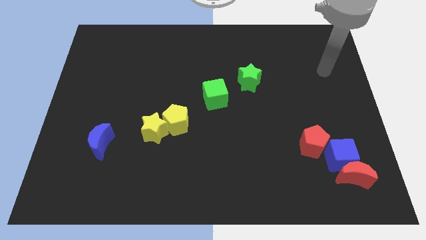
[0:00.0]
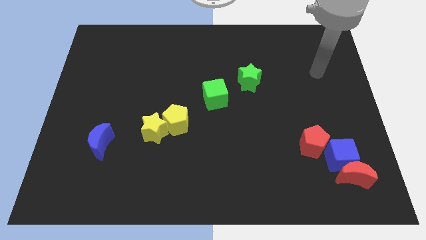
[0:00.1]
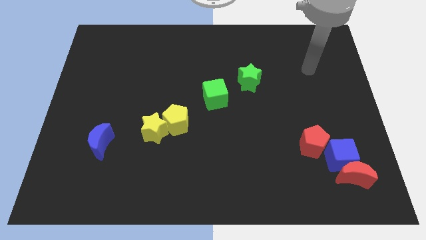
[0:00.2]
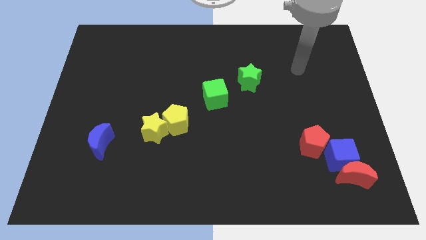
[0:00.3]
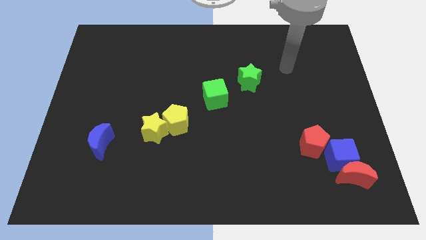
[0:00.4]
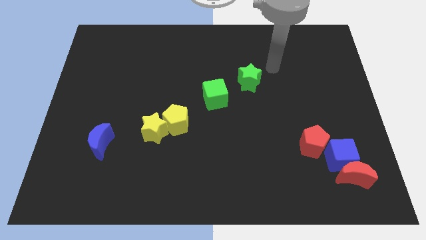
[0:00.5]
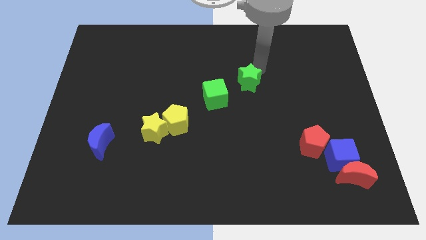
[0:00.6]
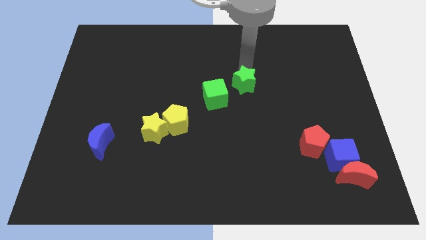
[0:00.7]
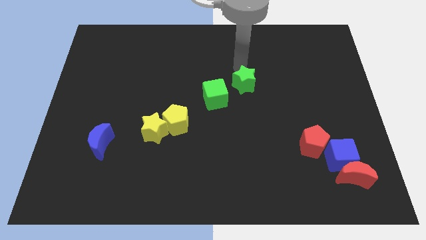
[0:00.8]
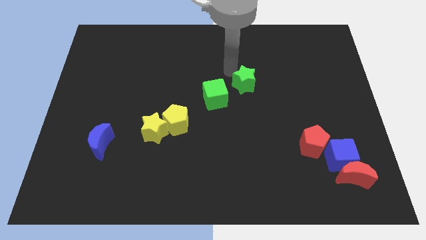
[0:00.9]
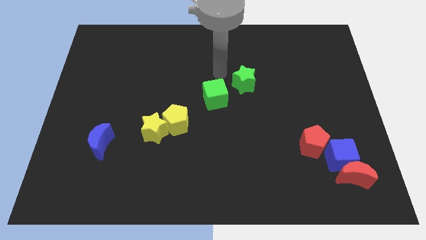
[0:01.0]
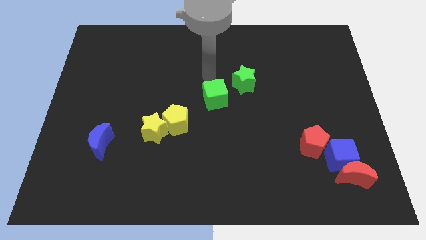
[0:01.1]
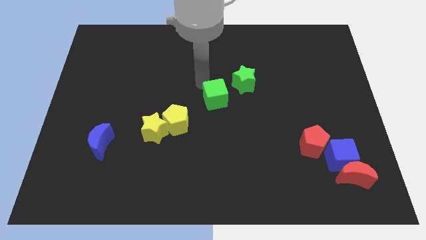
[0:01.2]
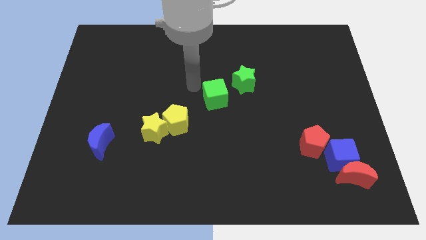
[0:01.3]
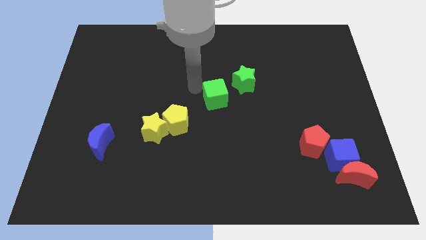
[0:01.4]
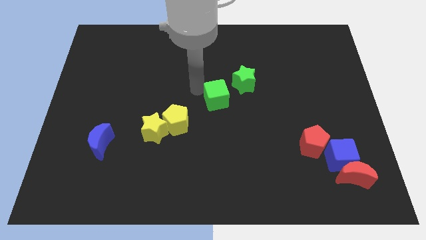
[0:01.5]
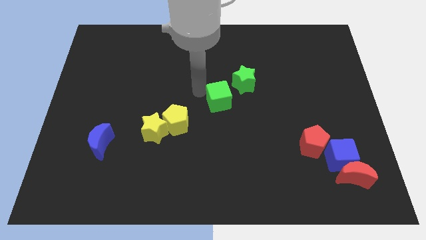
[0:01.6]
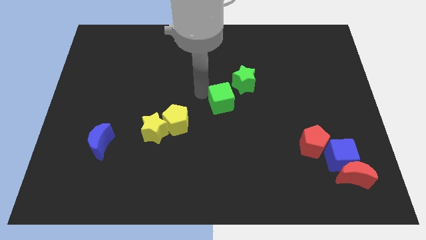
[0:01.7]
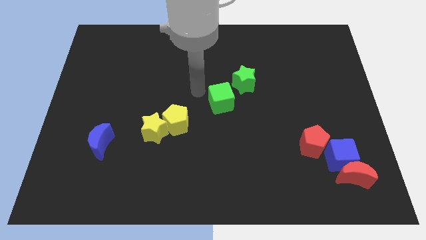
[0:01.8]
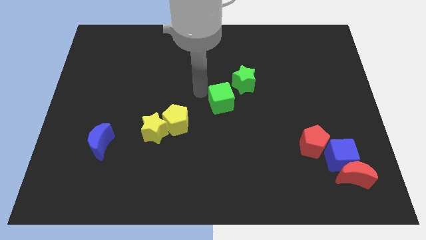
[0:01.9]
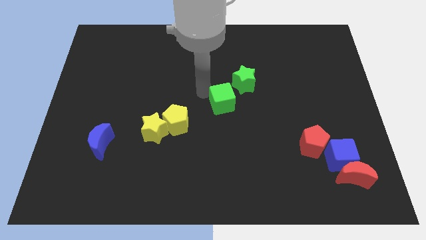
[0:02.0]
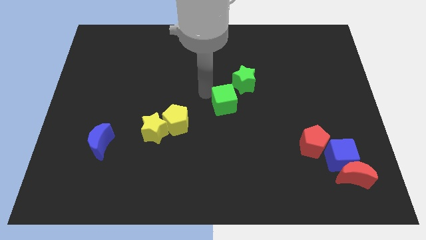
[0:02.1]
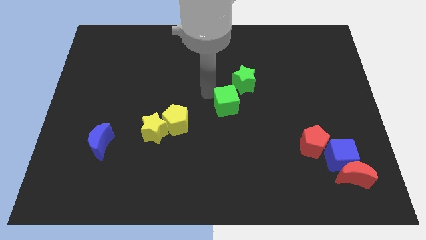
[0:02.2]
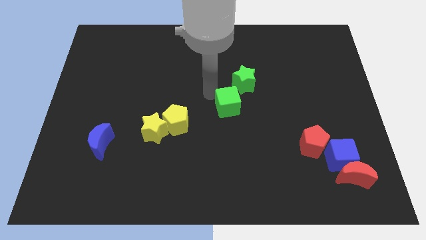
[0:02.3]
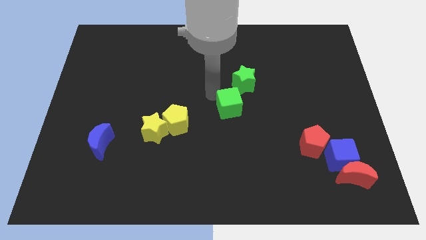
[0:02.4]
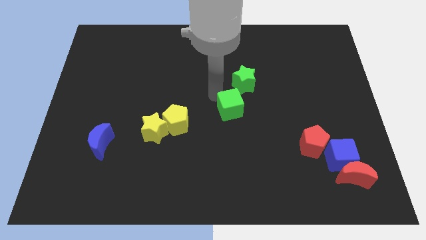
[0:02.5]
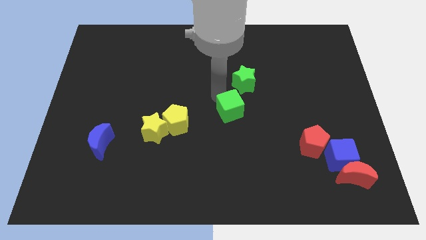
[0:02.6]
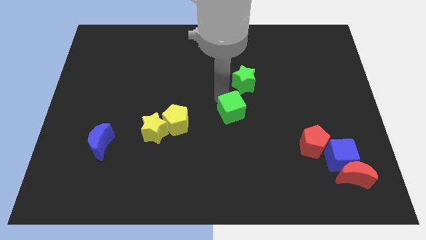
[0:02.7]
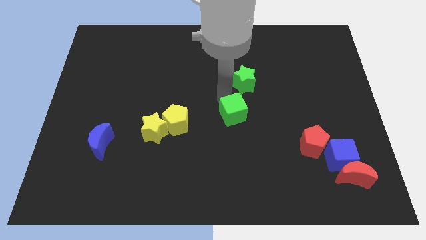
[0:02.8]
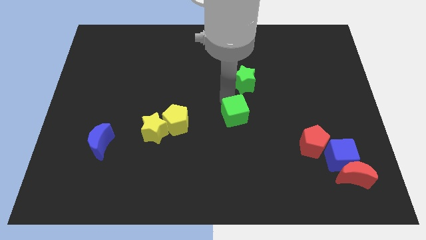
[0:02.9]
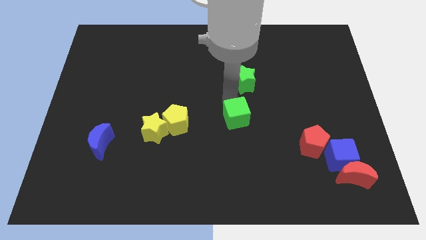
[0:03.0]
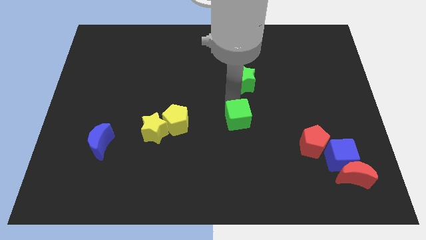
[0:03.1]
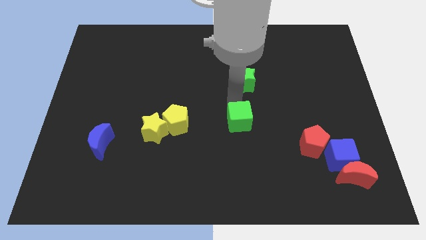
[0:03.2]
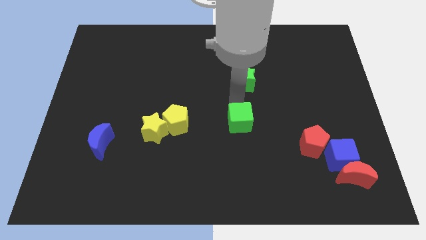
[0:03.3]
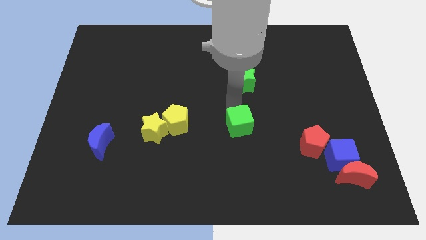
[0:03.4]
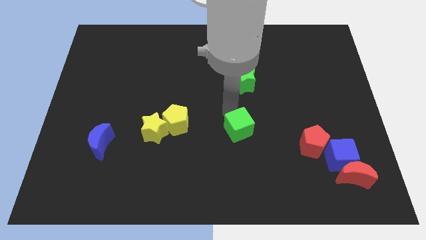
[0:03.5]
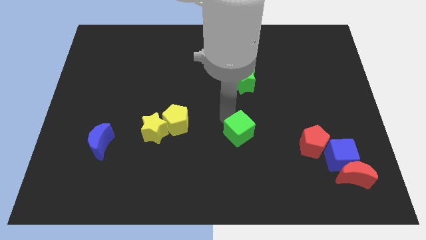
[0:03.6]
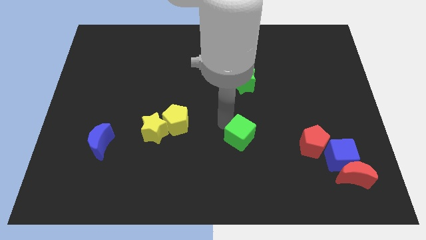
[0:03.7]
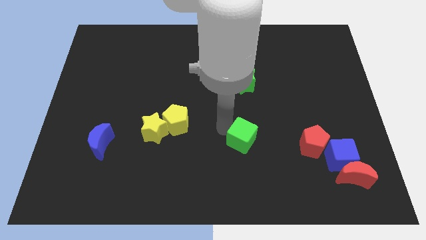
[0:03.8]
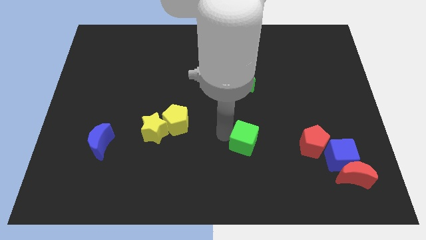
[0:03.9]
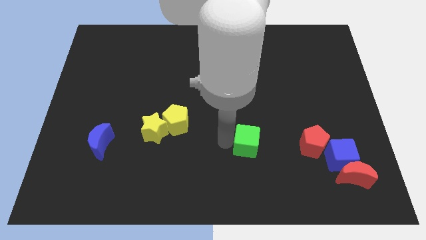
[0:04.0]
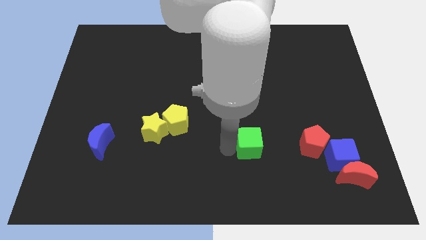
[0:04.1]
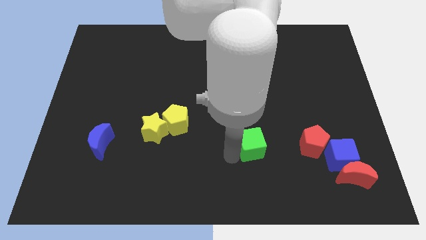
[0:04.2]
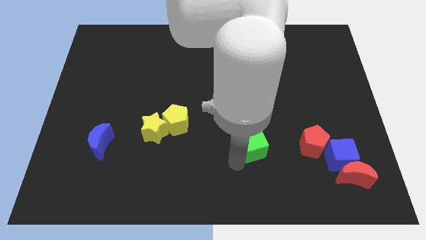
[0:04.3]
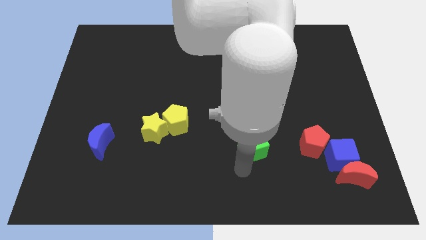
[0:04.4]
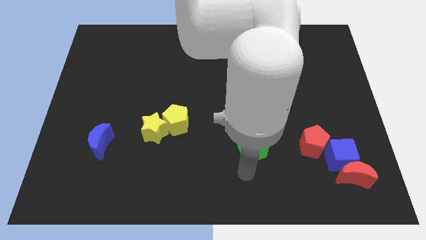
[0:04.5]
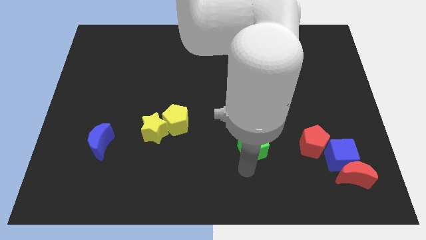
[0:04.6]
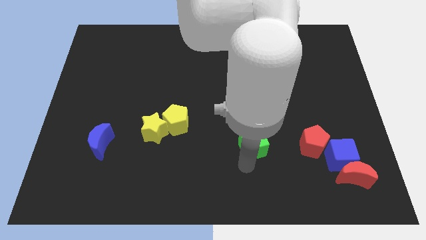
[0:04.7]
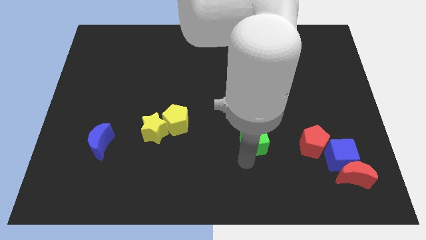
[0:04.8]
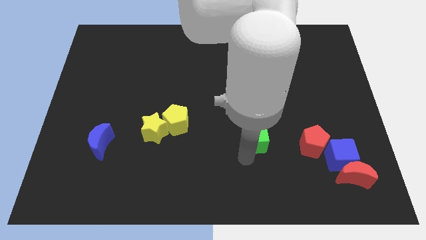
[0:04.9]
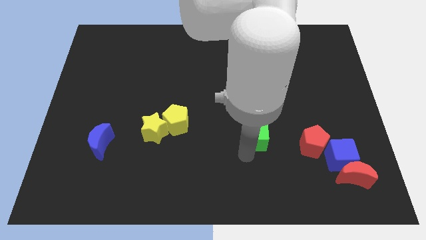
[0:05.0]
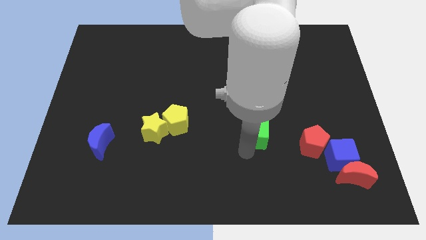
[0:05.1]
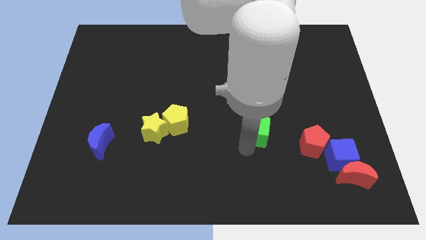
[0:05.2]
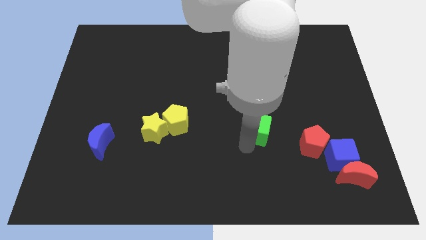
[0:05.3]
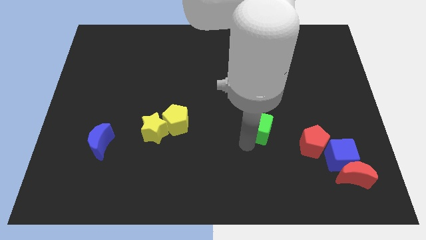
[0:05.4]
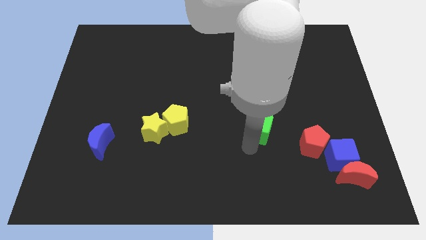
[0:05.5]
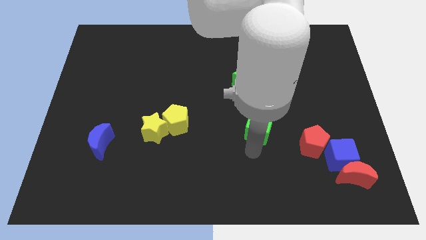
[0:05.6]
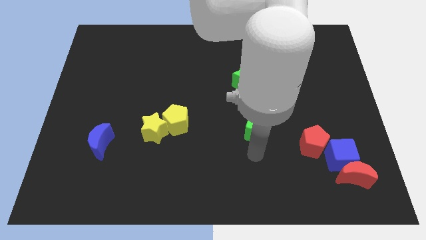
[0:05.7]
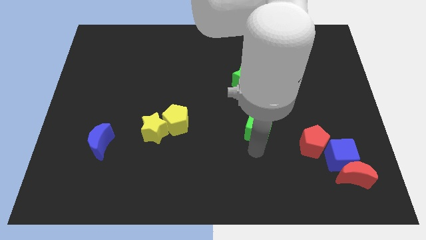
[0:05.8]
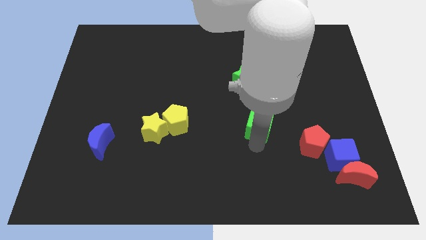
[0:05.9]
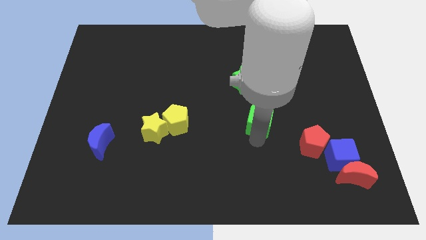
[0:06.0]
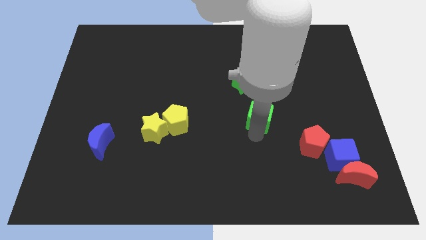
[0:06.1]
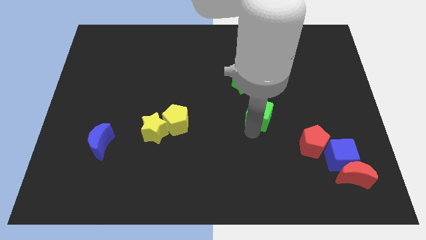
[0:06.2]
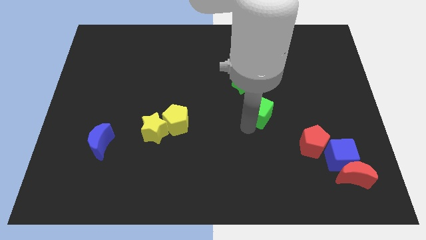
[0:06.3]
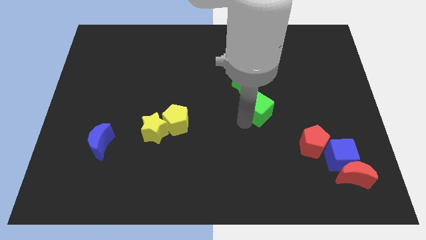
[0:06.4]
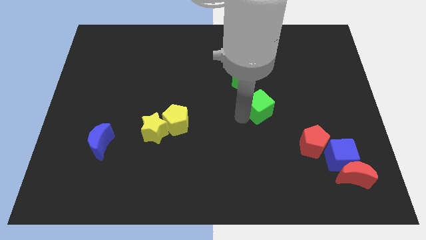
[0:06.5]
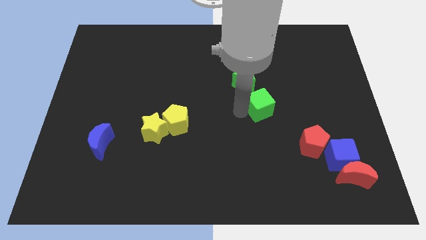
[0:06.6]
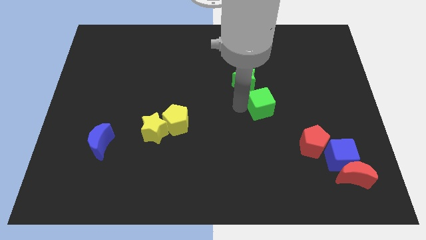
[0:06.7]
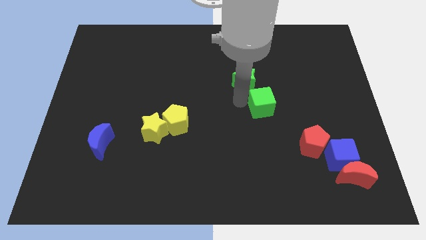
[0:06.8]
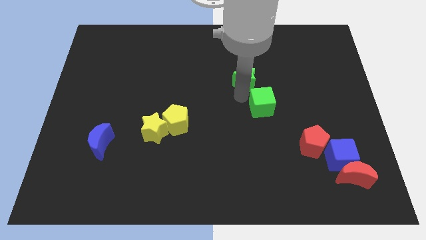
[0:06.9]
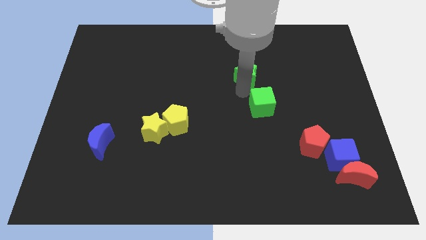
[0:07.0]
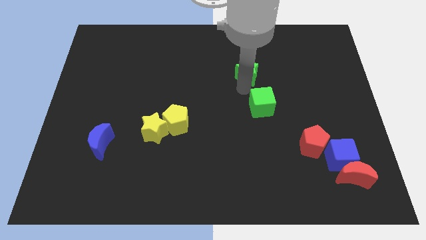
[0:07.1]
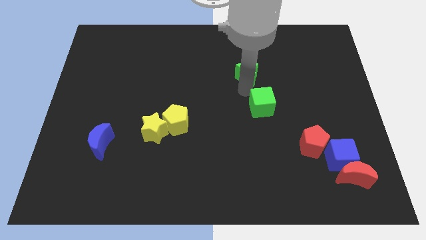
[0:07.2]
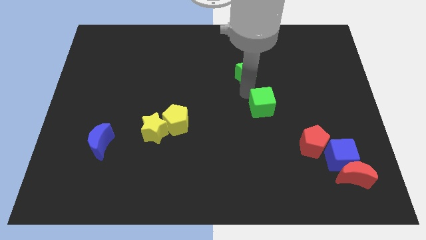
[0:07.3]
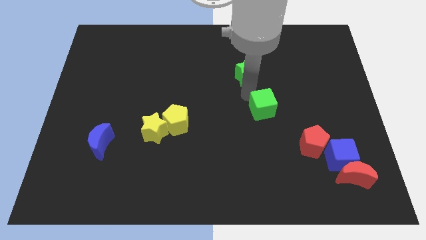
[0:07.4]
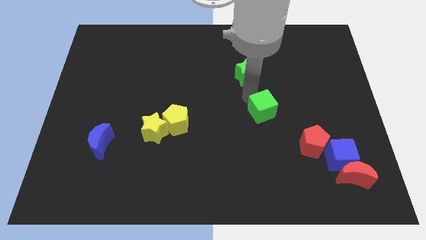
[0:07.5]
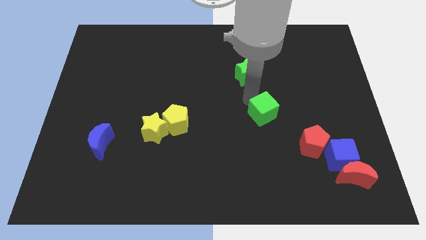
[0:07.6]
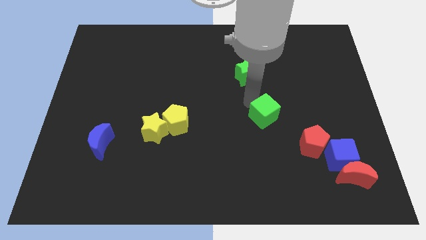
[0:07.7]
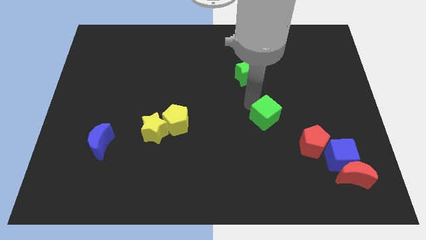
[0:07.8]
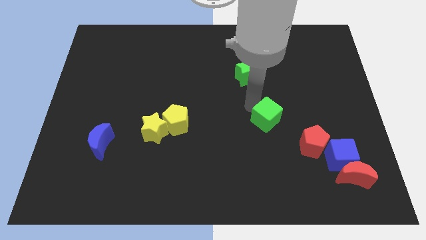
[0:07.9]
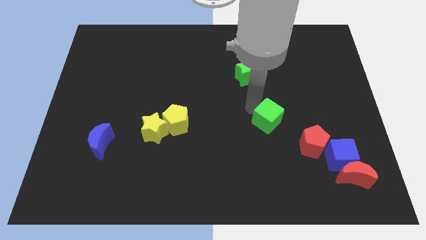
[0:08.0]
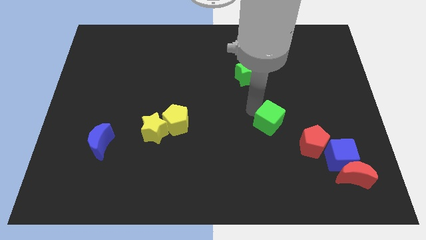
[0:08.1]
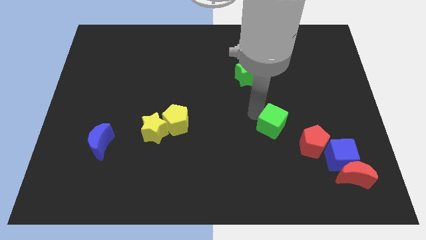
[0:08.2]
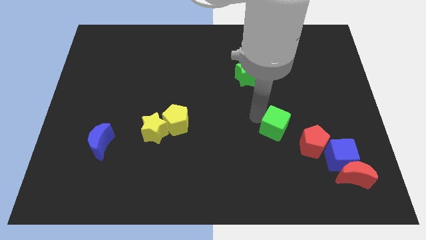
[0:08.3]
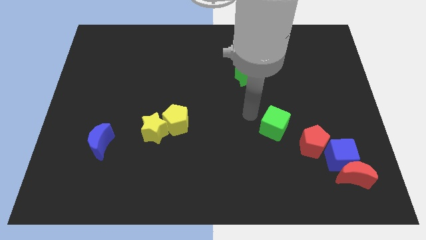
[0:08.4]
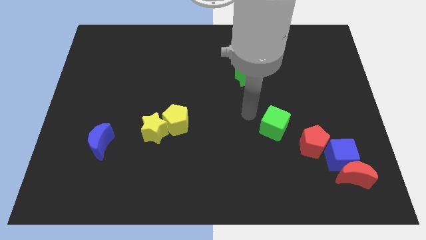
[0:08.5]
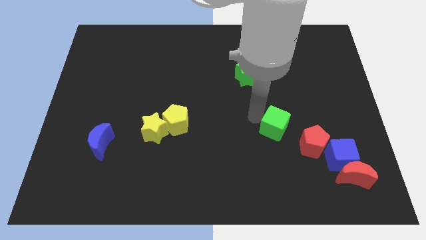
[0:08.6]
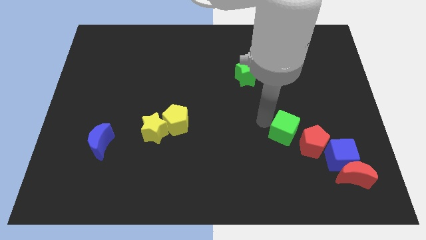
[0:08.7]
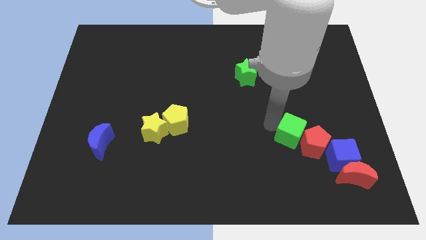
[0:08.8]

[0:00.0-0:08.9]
move the green cube to the red pentagon
